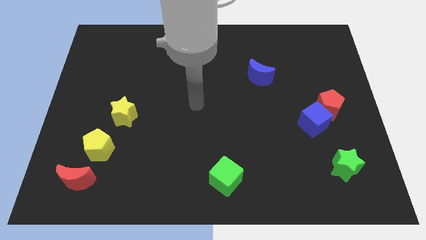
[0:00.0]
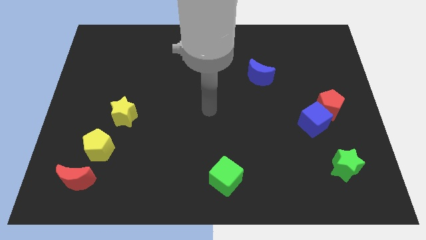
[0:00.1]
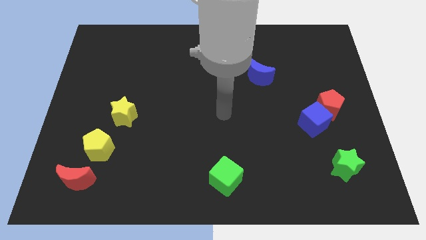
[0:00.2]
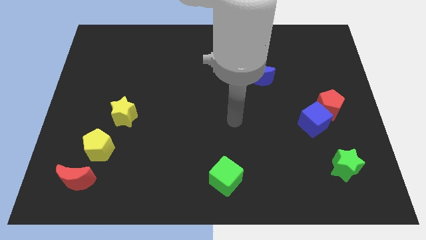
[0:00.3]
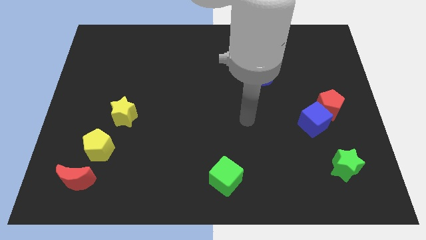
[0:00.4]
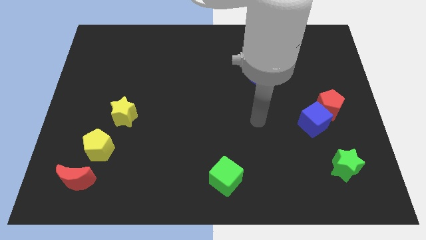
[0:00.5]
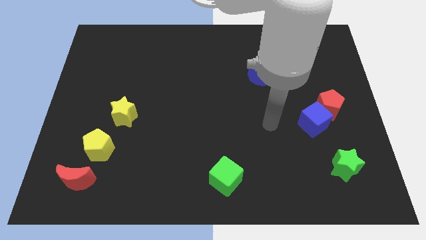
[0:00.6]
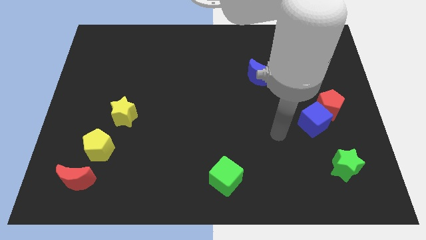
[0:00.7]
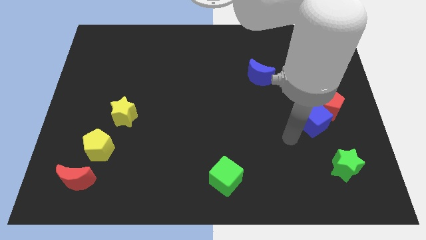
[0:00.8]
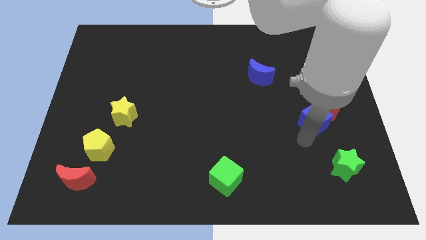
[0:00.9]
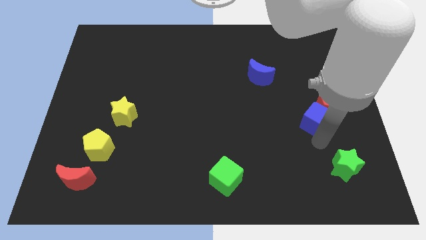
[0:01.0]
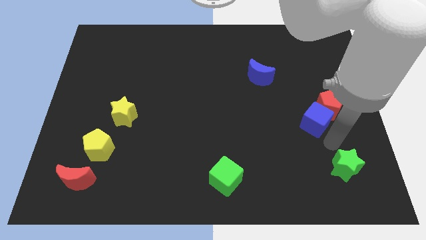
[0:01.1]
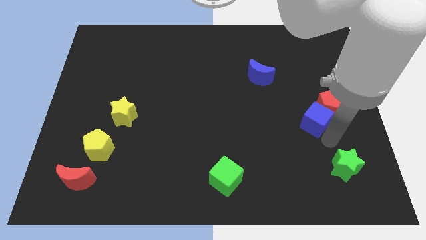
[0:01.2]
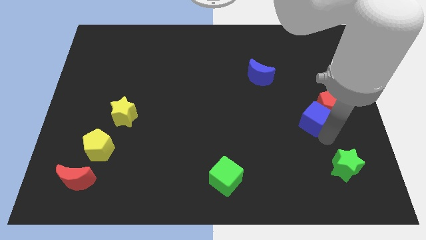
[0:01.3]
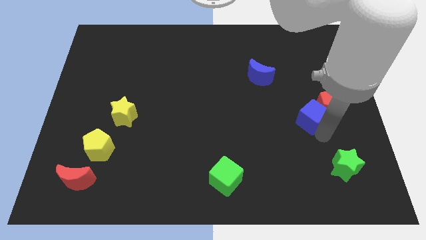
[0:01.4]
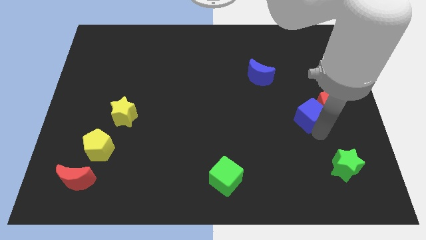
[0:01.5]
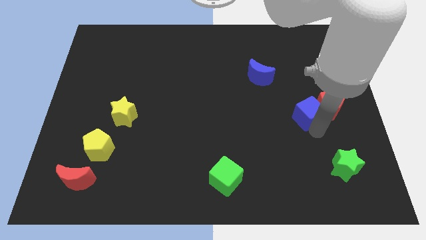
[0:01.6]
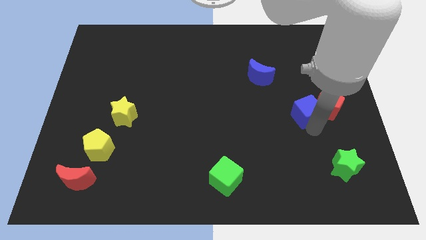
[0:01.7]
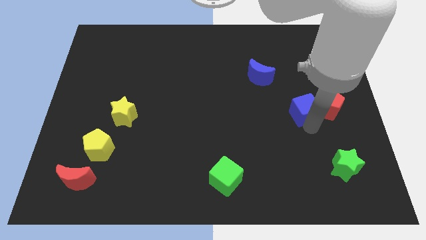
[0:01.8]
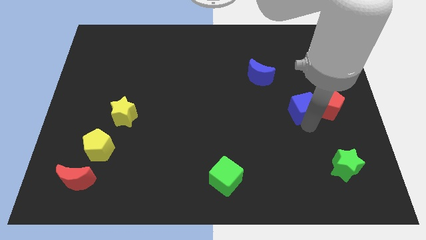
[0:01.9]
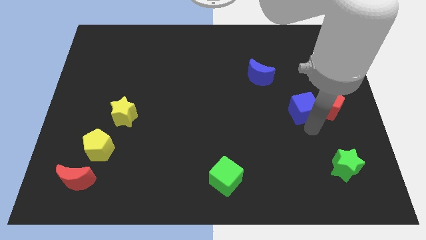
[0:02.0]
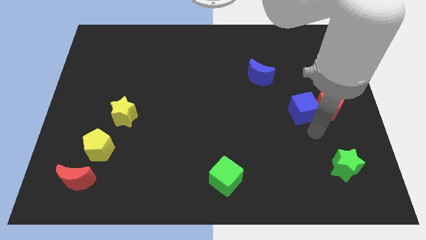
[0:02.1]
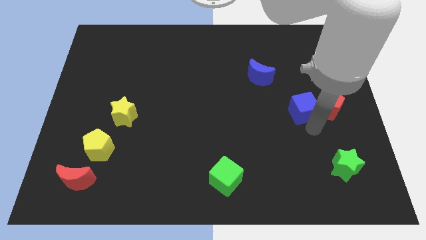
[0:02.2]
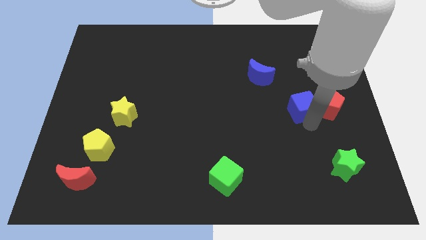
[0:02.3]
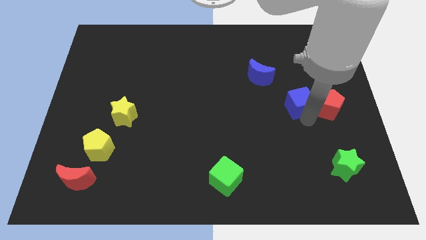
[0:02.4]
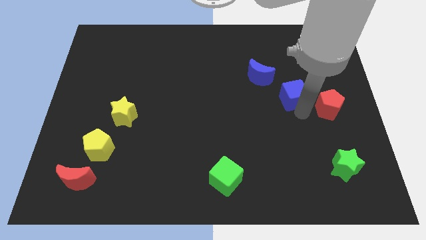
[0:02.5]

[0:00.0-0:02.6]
push the blue cube a little bit upwards

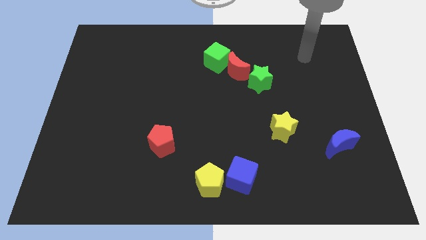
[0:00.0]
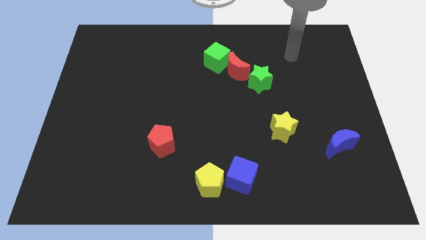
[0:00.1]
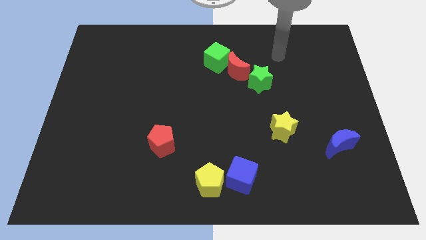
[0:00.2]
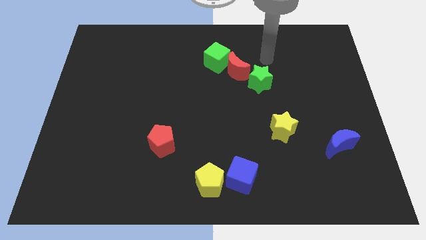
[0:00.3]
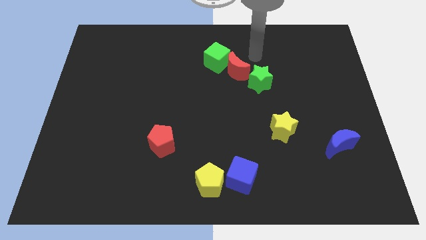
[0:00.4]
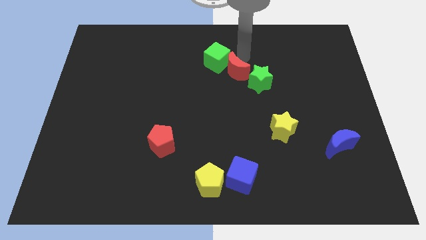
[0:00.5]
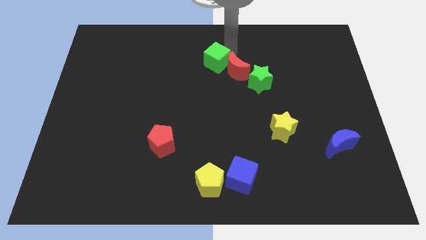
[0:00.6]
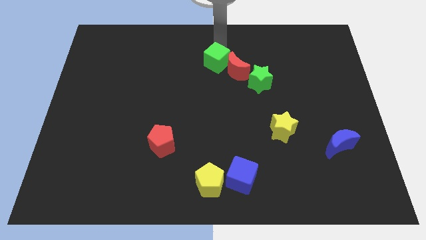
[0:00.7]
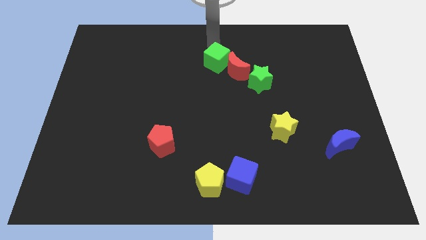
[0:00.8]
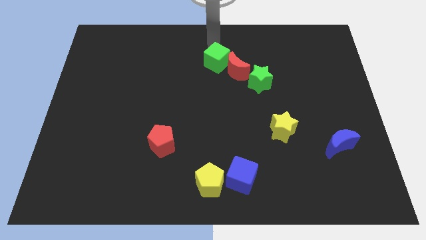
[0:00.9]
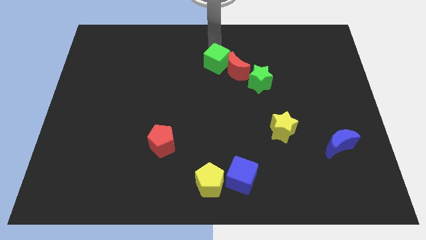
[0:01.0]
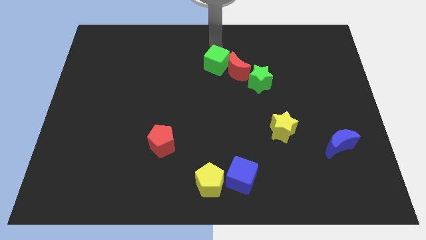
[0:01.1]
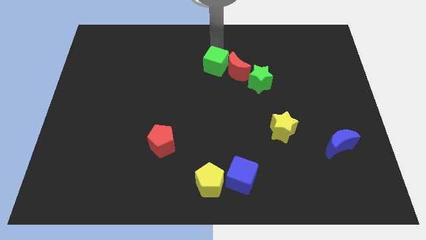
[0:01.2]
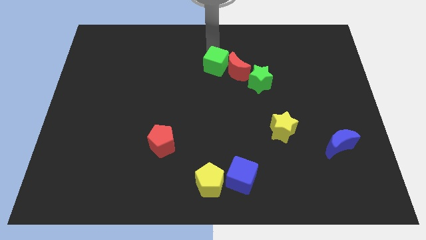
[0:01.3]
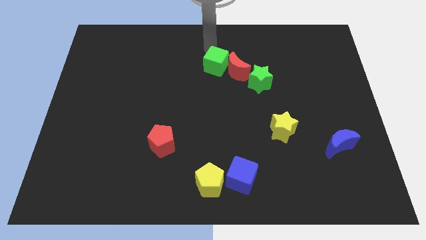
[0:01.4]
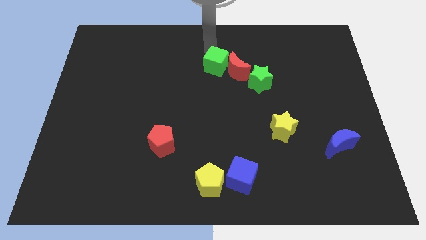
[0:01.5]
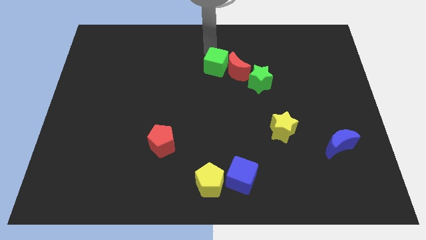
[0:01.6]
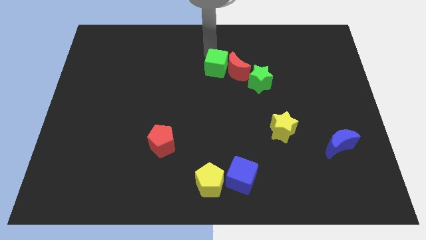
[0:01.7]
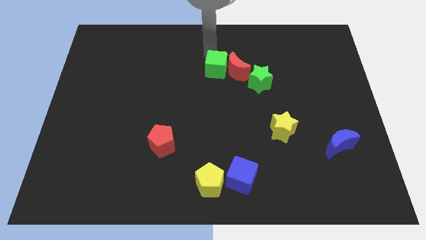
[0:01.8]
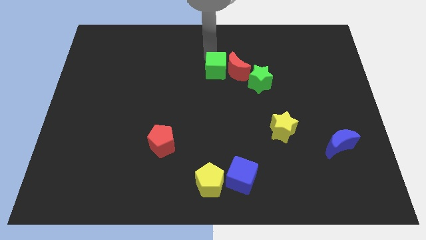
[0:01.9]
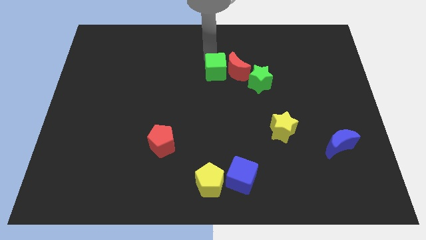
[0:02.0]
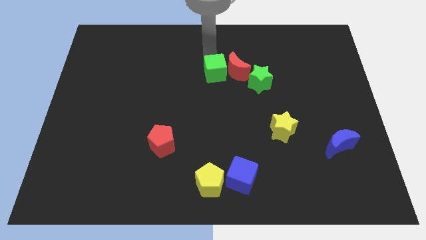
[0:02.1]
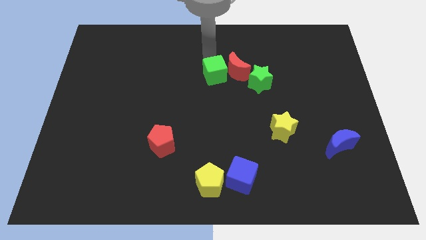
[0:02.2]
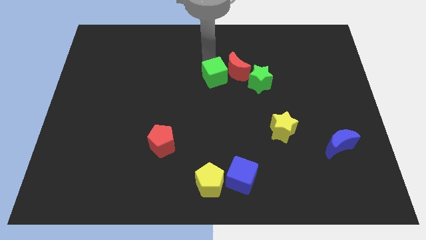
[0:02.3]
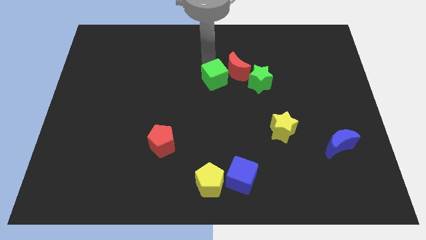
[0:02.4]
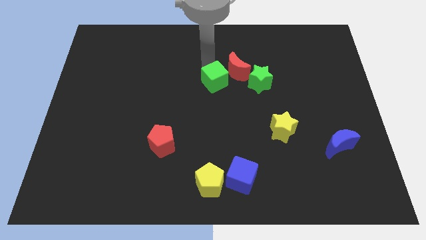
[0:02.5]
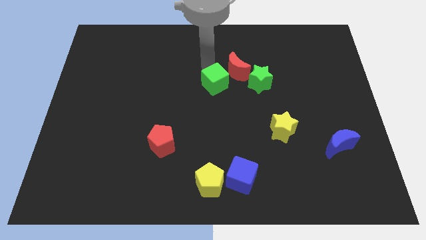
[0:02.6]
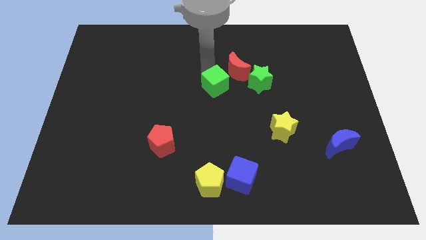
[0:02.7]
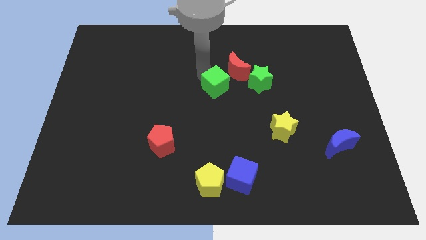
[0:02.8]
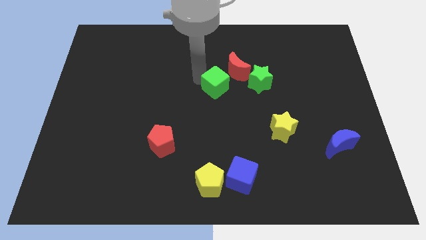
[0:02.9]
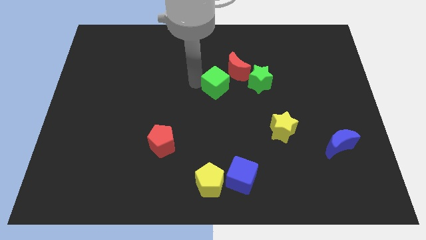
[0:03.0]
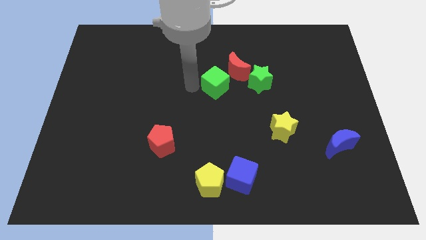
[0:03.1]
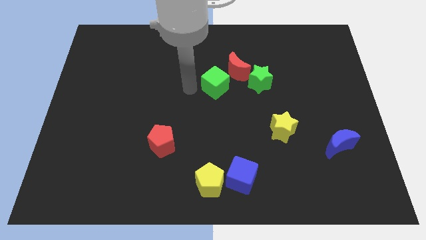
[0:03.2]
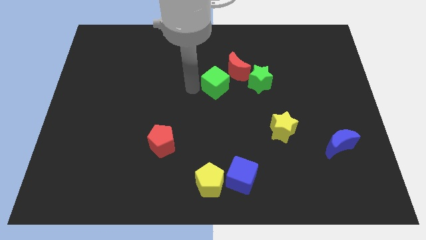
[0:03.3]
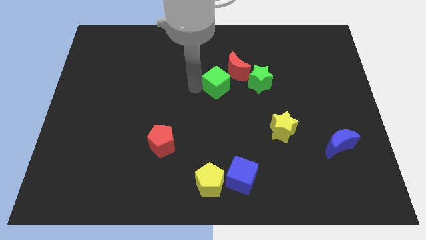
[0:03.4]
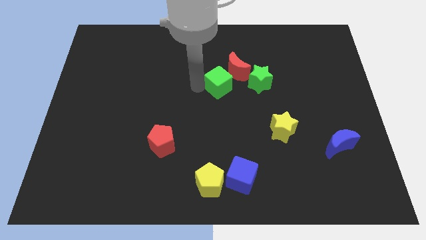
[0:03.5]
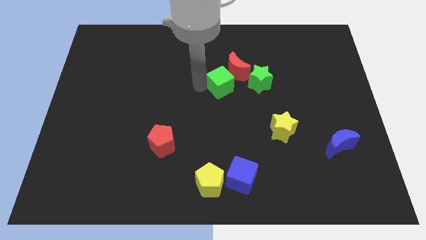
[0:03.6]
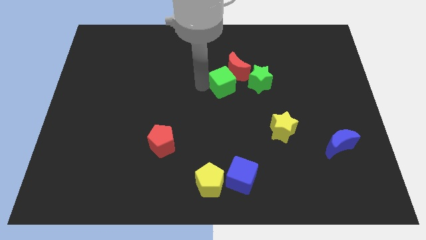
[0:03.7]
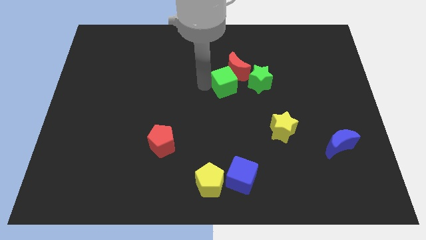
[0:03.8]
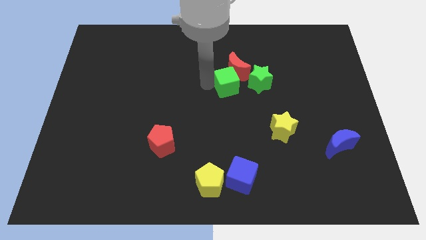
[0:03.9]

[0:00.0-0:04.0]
slide the green cube diagonally downwards and to the right a little

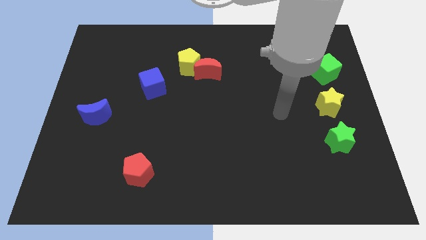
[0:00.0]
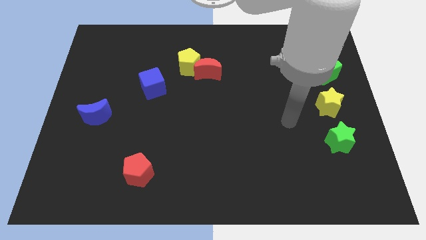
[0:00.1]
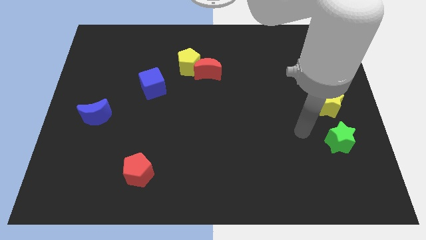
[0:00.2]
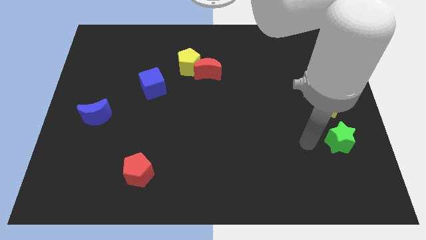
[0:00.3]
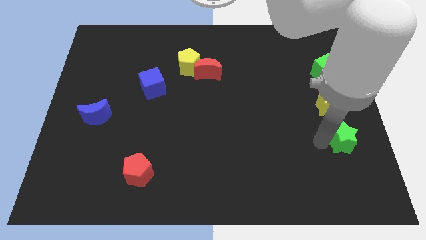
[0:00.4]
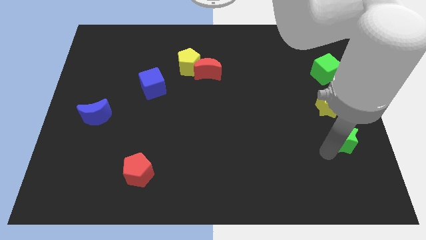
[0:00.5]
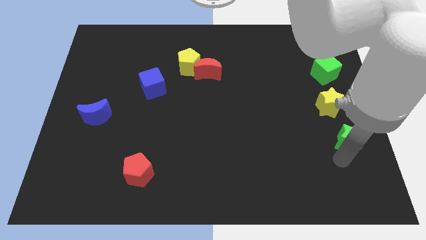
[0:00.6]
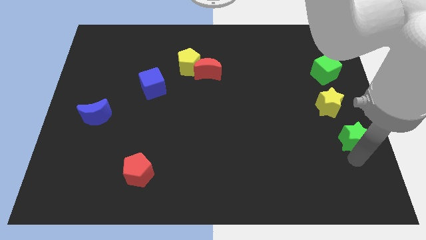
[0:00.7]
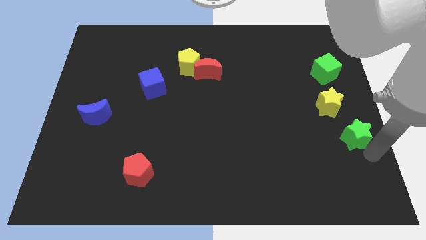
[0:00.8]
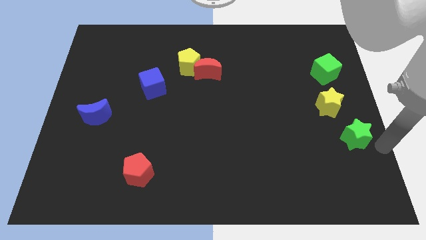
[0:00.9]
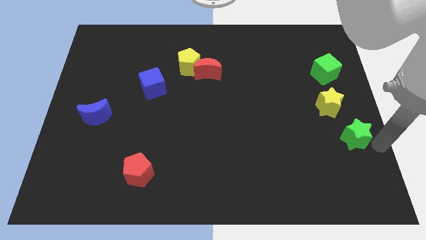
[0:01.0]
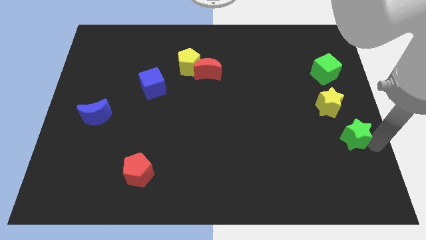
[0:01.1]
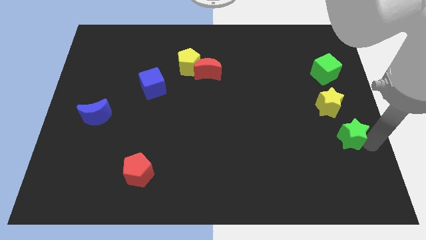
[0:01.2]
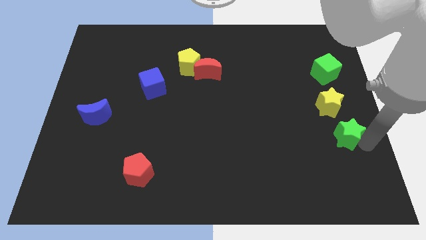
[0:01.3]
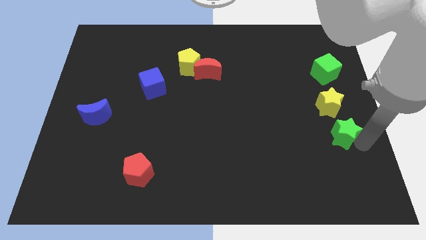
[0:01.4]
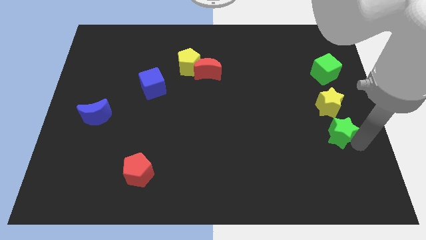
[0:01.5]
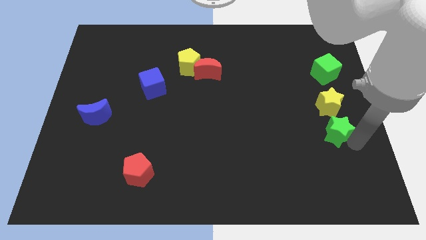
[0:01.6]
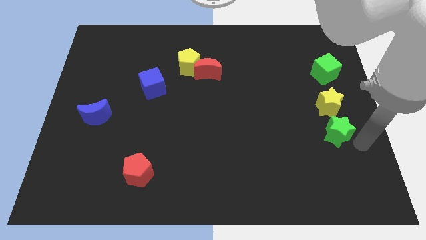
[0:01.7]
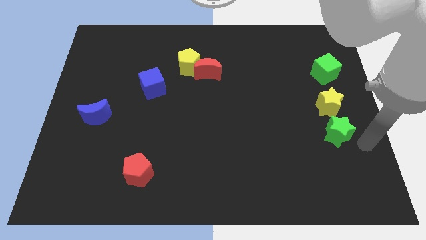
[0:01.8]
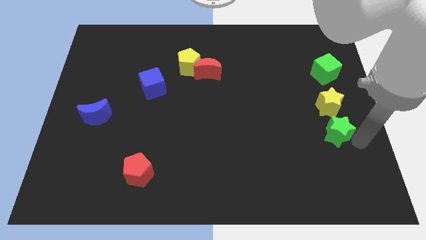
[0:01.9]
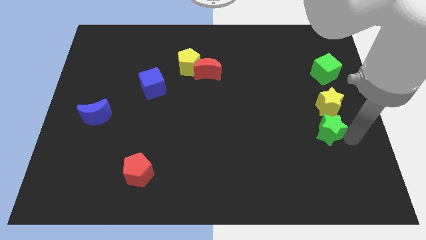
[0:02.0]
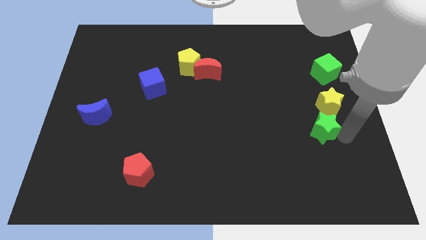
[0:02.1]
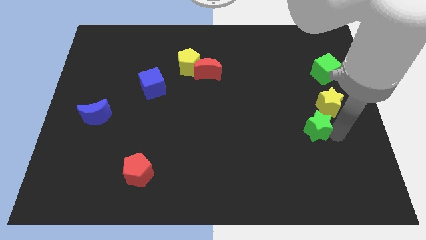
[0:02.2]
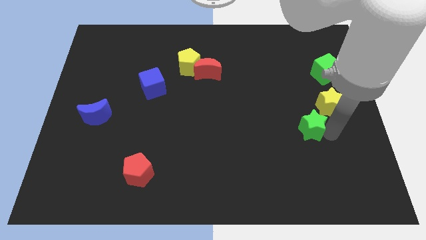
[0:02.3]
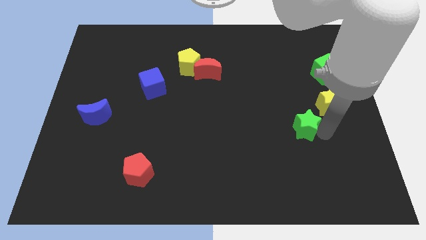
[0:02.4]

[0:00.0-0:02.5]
slightly move the green star upwards and then left
